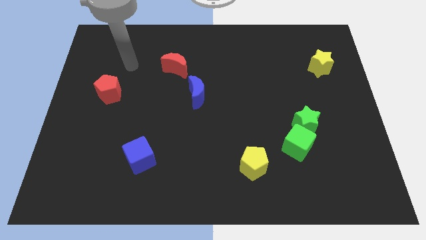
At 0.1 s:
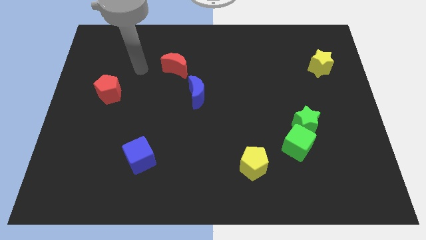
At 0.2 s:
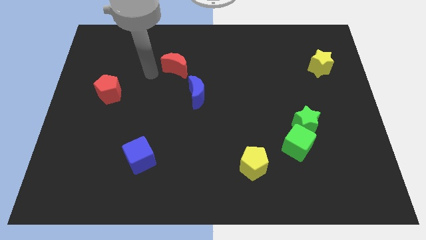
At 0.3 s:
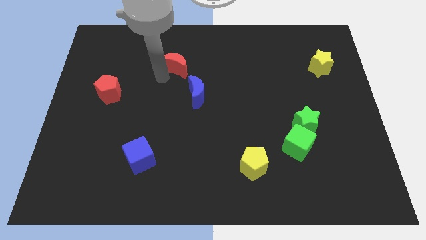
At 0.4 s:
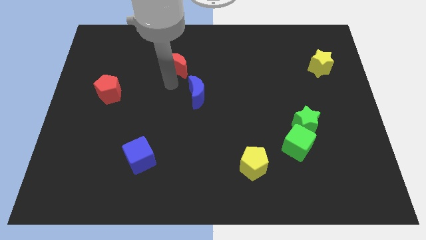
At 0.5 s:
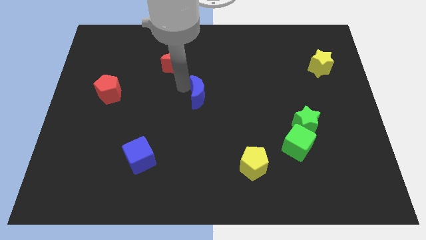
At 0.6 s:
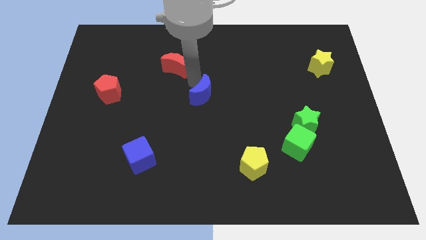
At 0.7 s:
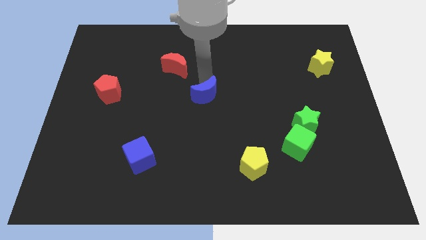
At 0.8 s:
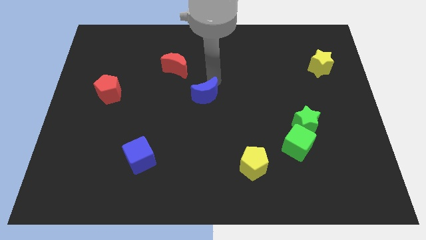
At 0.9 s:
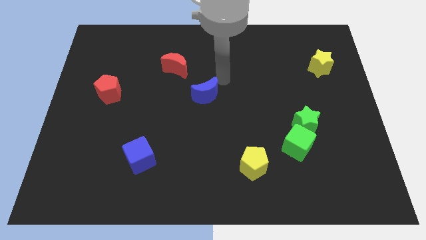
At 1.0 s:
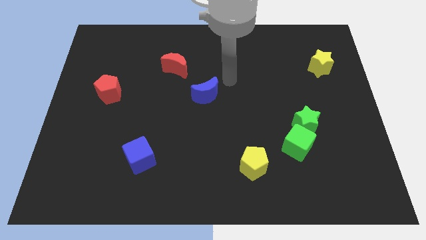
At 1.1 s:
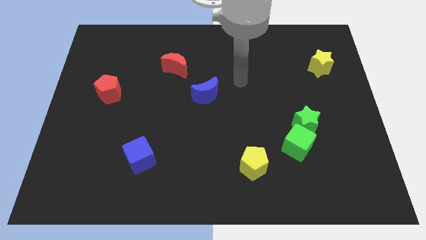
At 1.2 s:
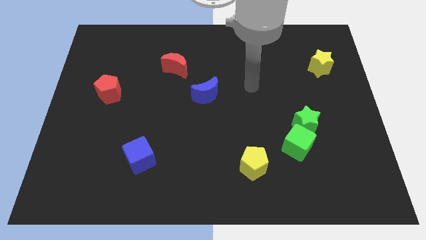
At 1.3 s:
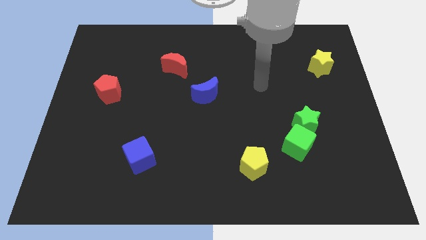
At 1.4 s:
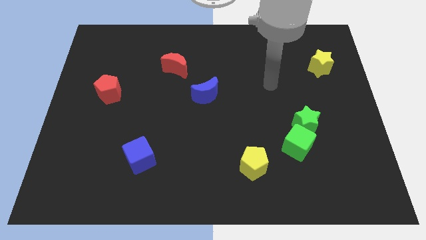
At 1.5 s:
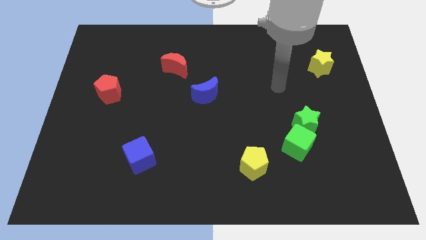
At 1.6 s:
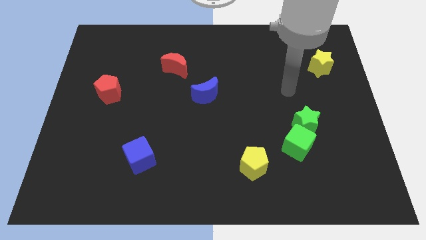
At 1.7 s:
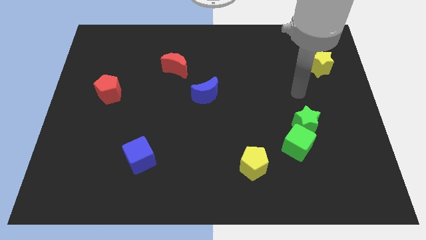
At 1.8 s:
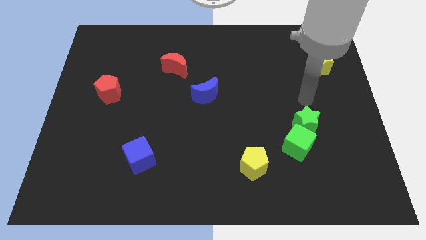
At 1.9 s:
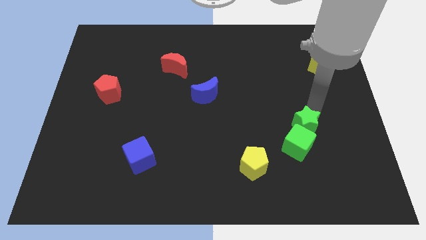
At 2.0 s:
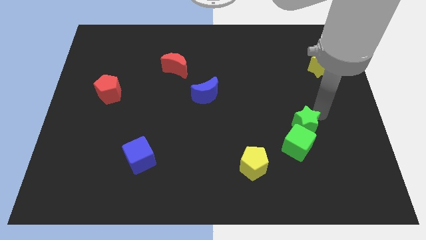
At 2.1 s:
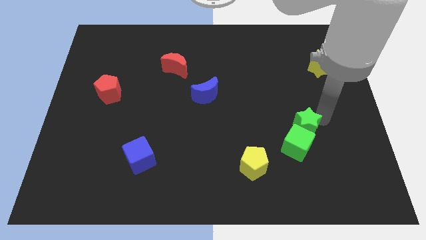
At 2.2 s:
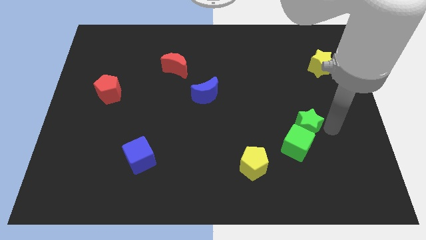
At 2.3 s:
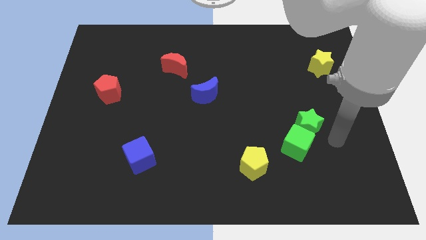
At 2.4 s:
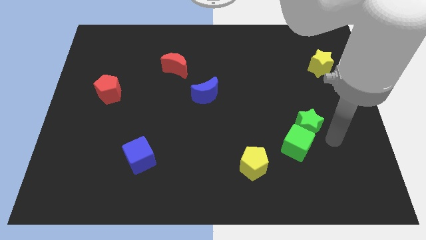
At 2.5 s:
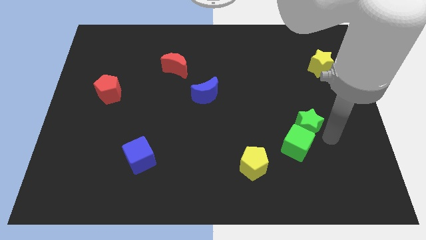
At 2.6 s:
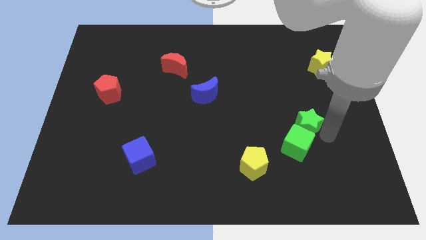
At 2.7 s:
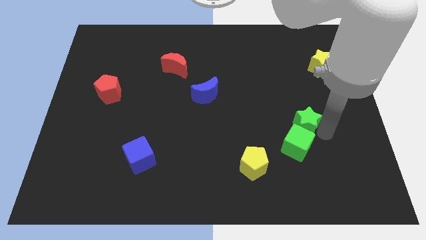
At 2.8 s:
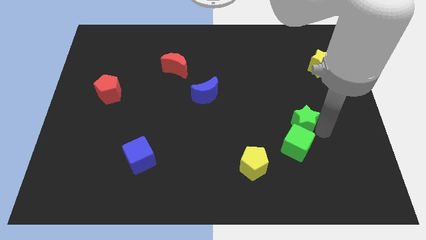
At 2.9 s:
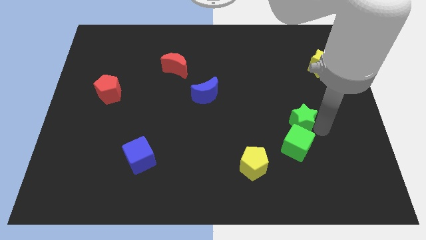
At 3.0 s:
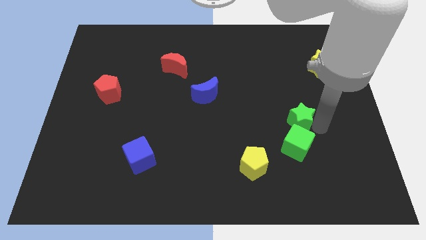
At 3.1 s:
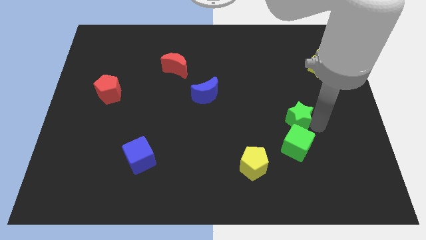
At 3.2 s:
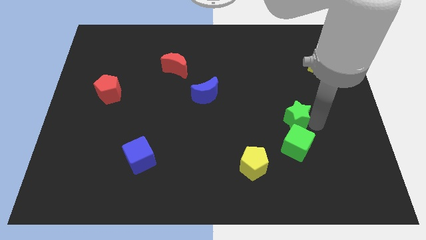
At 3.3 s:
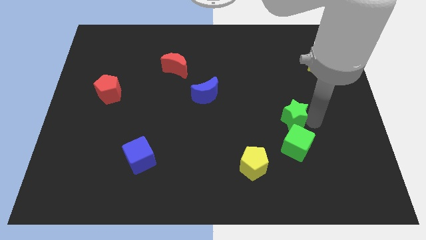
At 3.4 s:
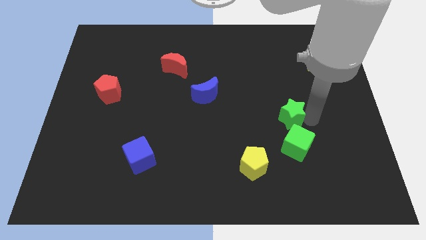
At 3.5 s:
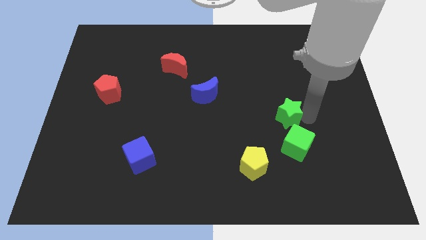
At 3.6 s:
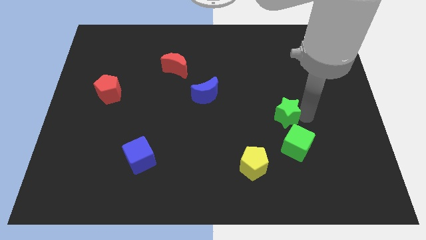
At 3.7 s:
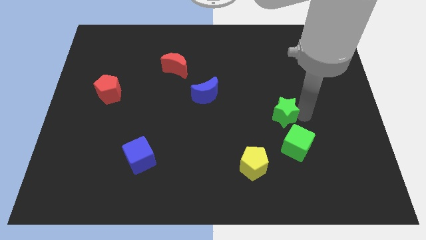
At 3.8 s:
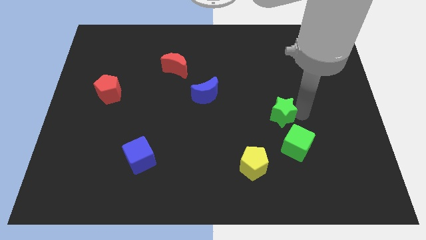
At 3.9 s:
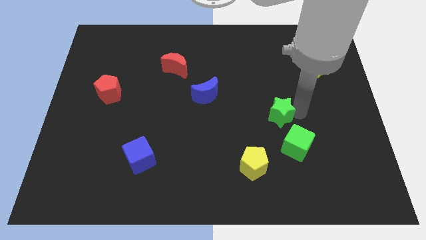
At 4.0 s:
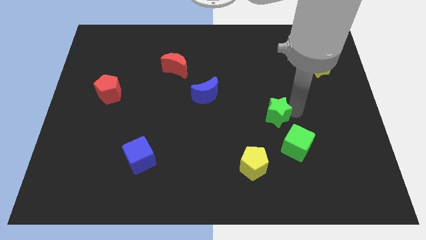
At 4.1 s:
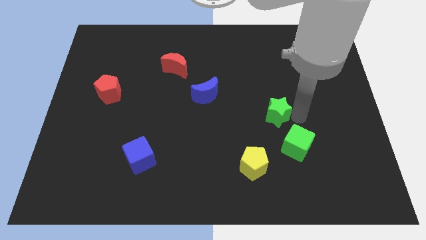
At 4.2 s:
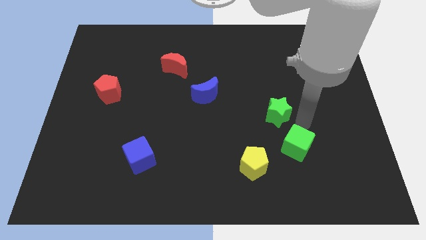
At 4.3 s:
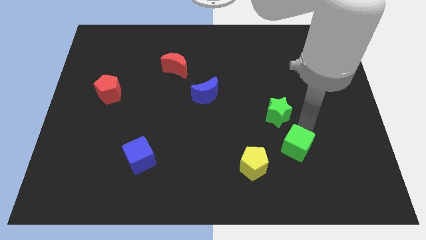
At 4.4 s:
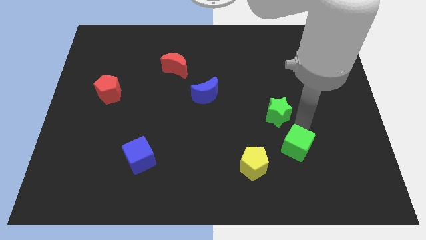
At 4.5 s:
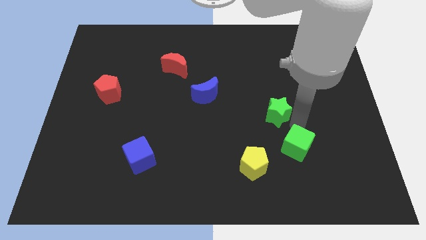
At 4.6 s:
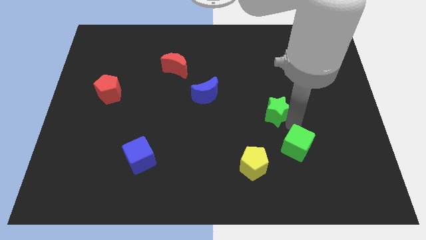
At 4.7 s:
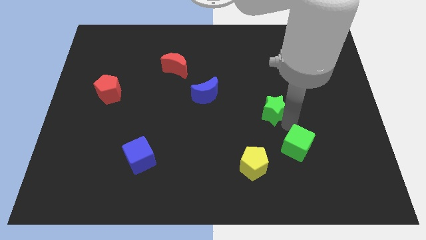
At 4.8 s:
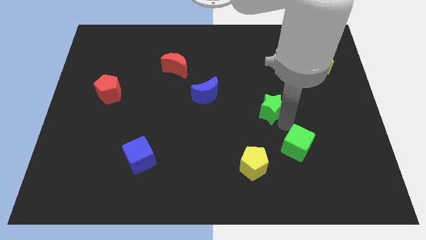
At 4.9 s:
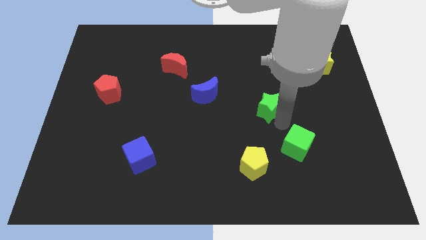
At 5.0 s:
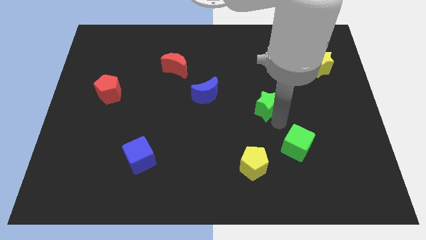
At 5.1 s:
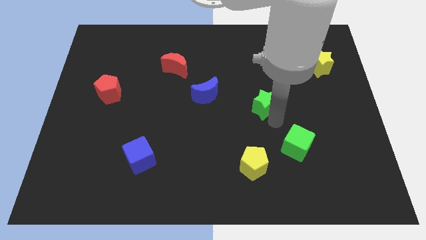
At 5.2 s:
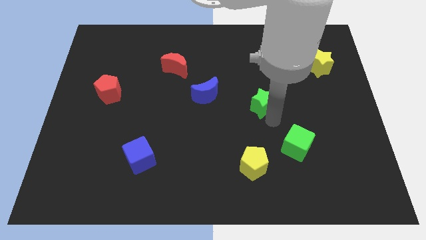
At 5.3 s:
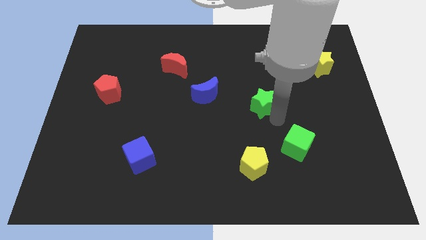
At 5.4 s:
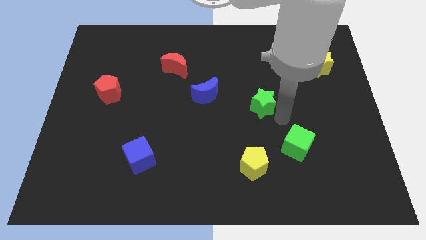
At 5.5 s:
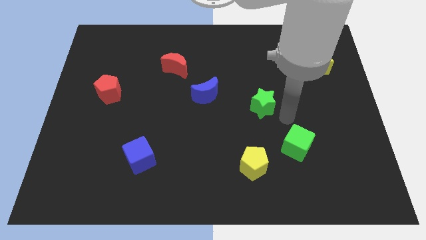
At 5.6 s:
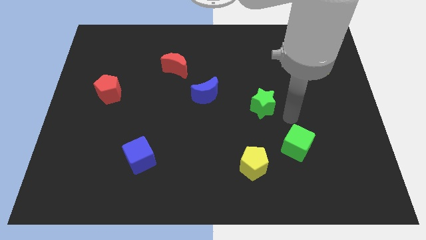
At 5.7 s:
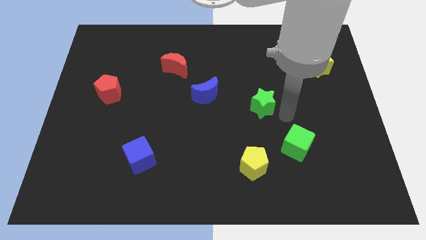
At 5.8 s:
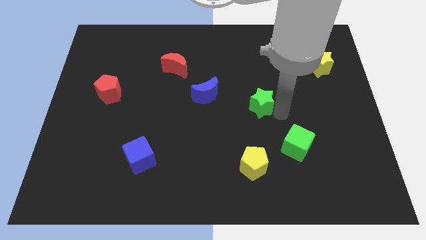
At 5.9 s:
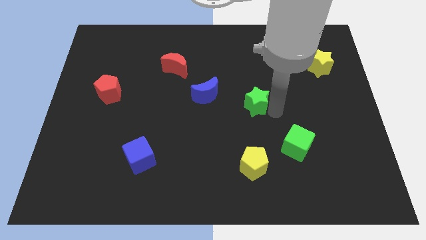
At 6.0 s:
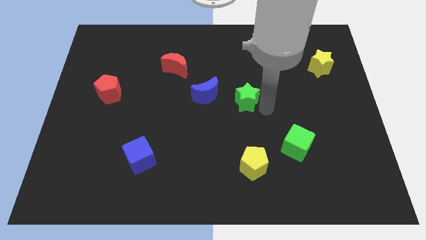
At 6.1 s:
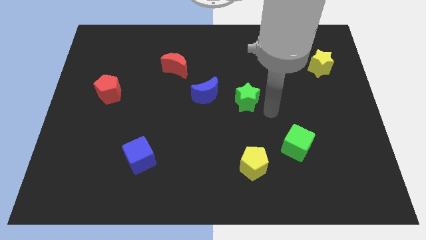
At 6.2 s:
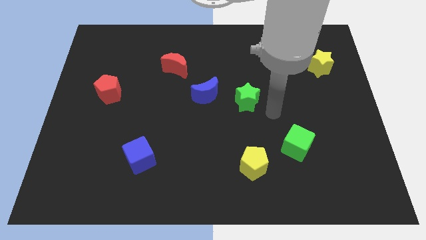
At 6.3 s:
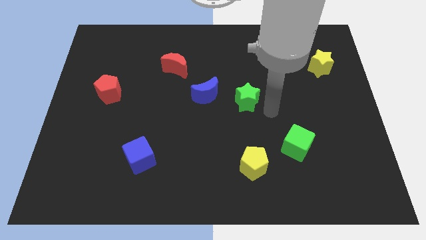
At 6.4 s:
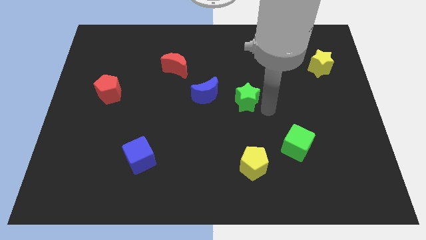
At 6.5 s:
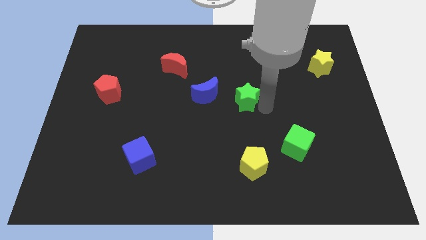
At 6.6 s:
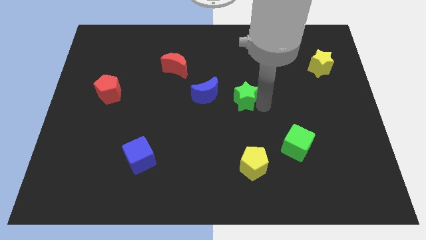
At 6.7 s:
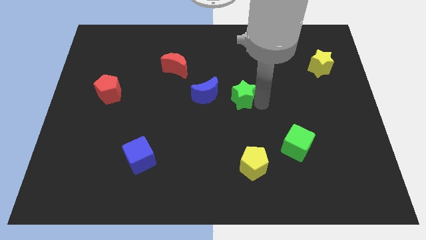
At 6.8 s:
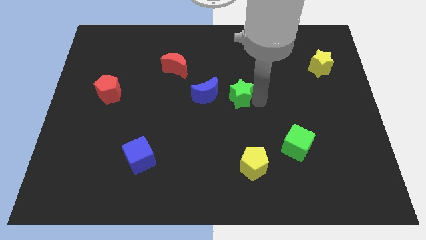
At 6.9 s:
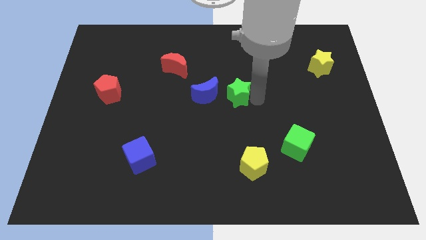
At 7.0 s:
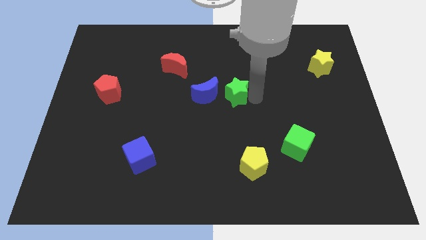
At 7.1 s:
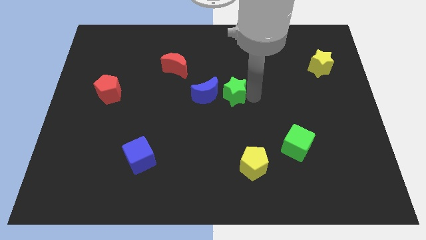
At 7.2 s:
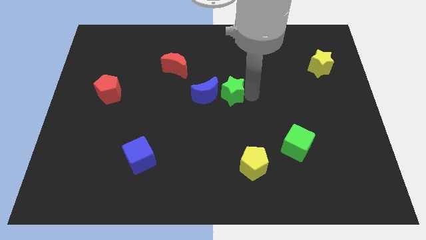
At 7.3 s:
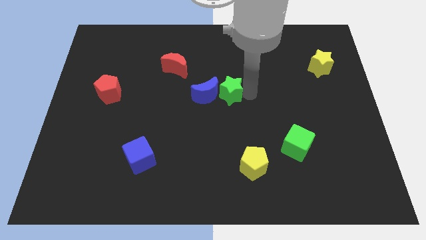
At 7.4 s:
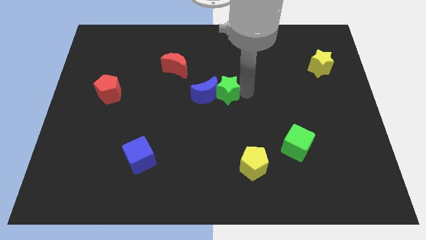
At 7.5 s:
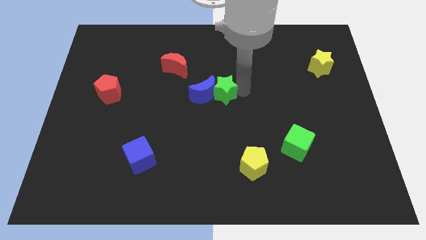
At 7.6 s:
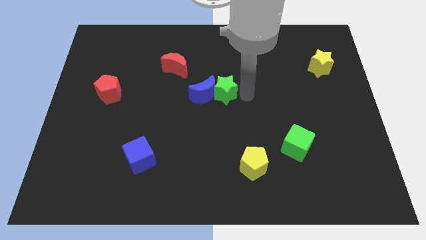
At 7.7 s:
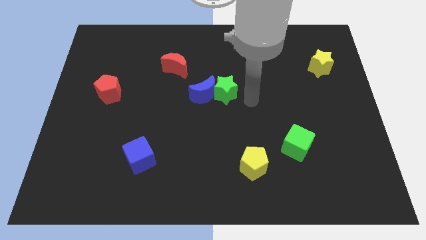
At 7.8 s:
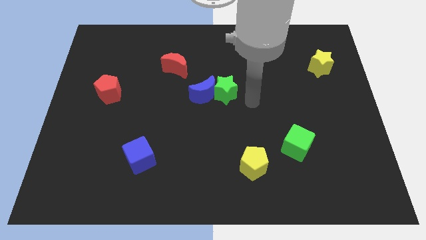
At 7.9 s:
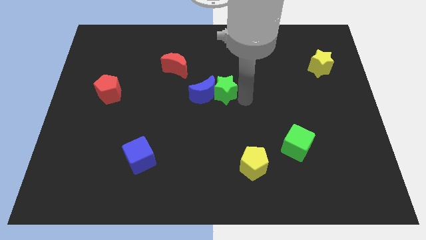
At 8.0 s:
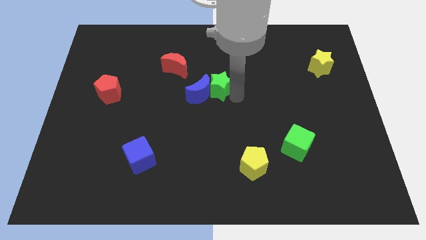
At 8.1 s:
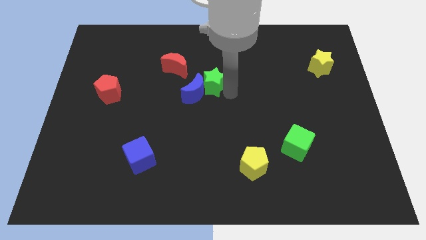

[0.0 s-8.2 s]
put the green star to the bottom right side of the red moon

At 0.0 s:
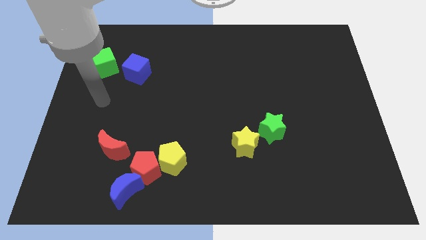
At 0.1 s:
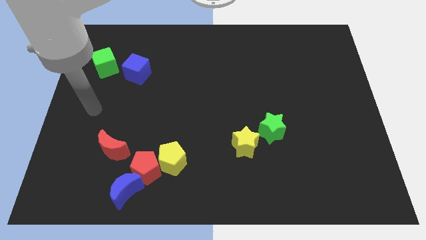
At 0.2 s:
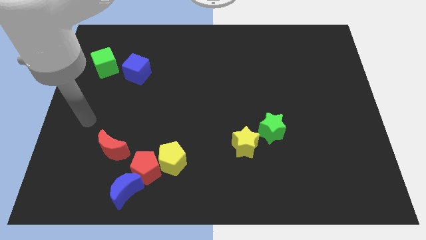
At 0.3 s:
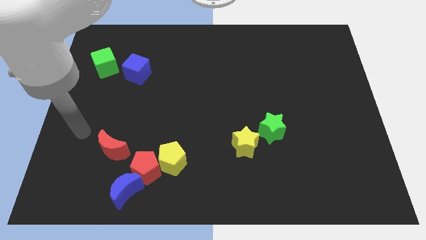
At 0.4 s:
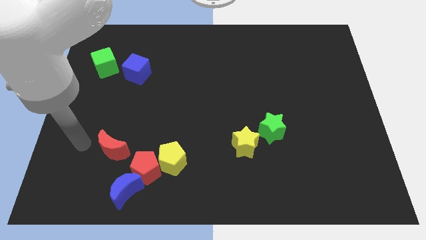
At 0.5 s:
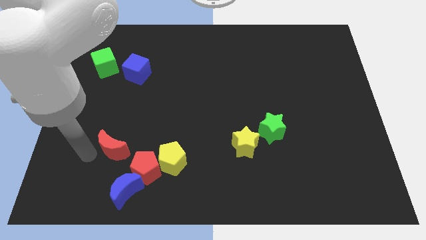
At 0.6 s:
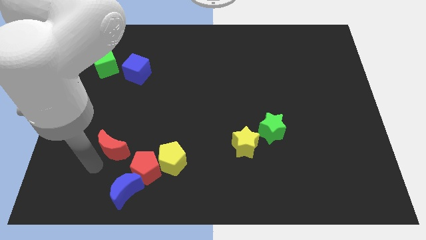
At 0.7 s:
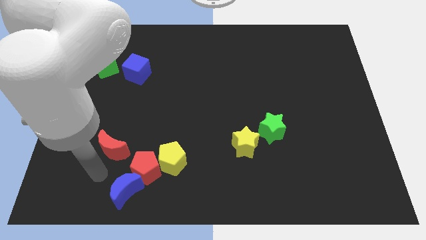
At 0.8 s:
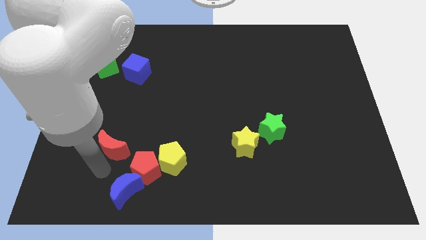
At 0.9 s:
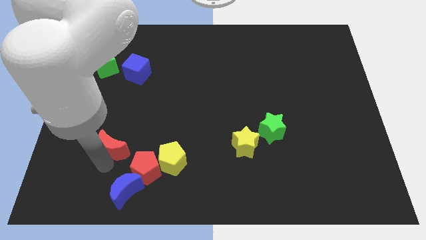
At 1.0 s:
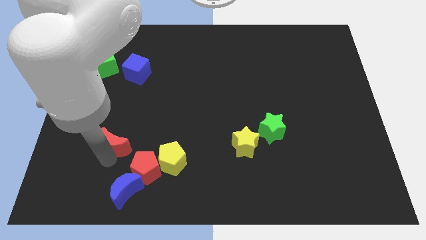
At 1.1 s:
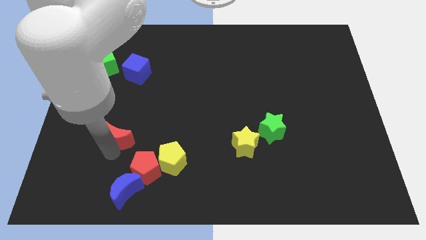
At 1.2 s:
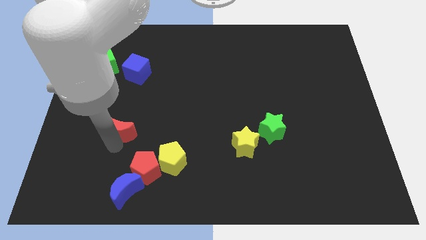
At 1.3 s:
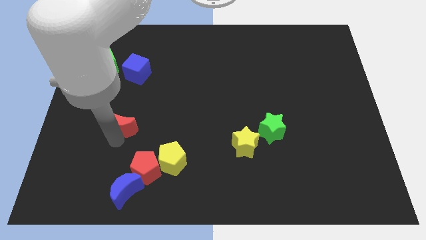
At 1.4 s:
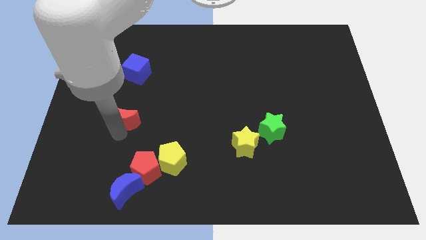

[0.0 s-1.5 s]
move the red moon to the bottom side of the blue cube
